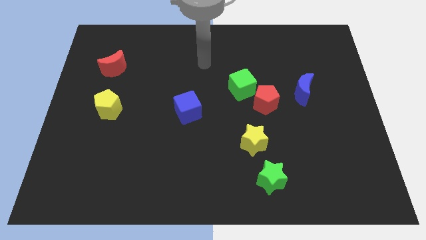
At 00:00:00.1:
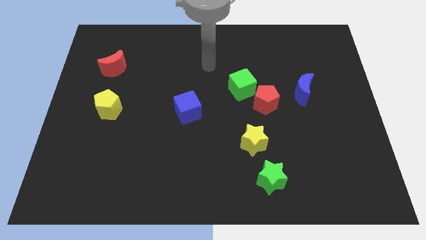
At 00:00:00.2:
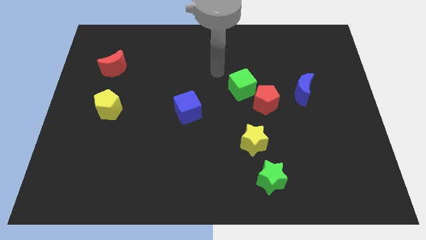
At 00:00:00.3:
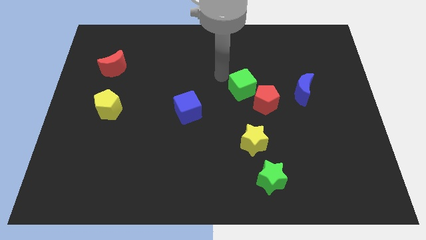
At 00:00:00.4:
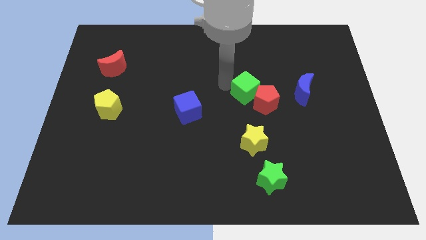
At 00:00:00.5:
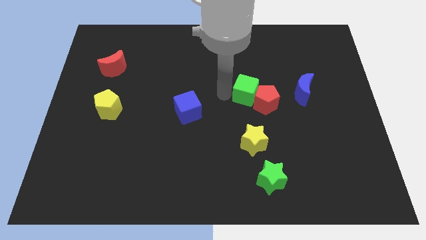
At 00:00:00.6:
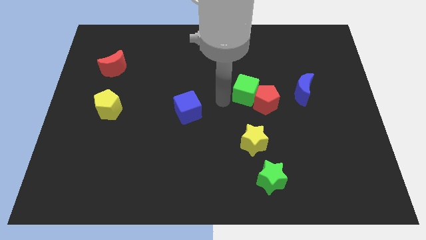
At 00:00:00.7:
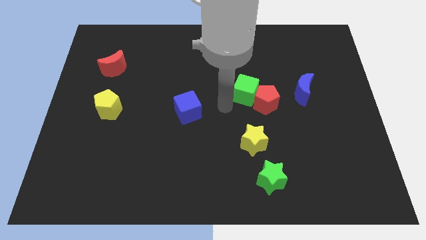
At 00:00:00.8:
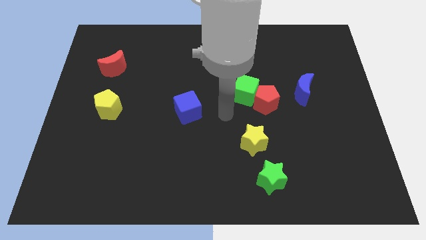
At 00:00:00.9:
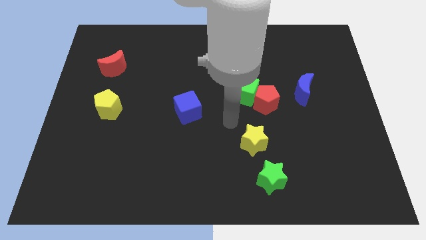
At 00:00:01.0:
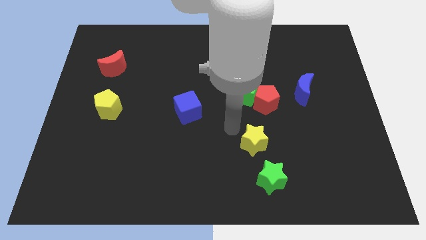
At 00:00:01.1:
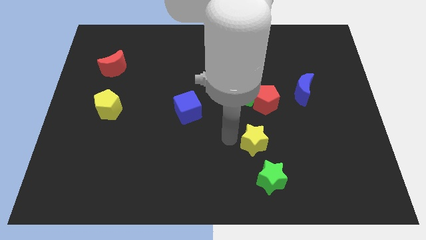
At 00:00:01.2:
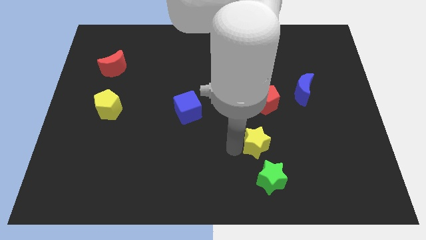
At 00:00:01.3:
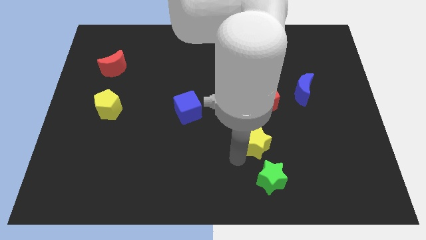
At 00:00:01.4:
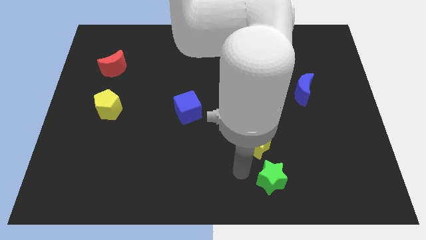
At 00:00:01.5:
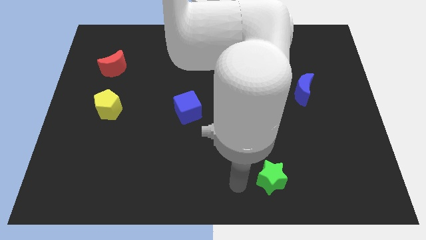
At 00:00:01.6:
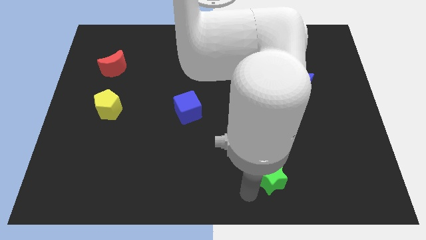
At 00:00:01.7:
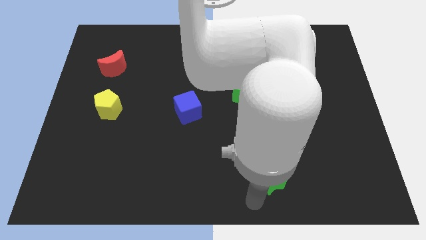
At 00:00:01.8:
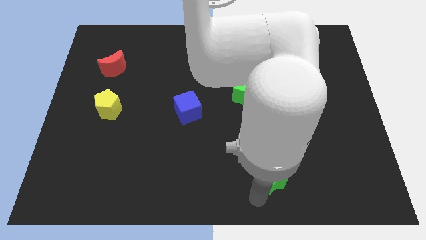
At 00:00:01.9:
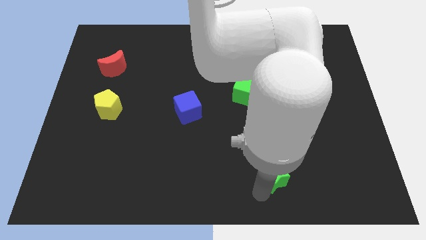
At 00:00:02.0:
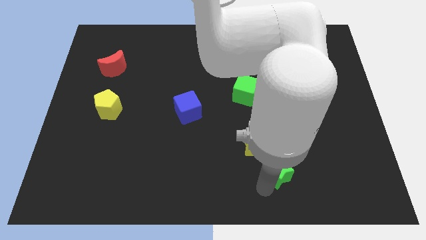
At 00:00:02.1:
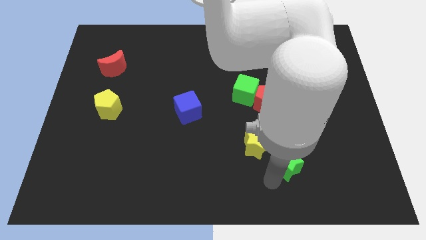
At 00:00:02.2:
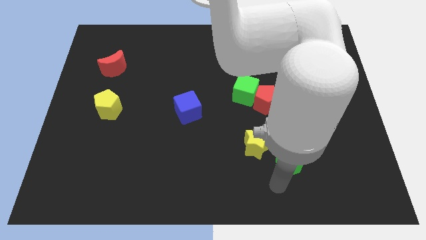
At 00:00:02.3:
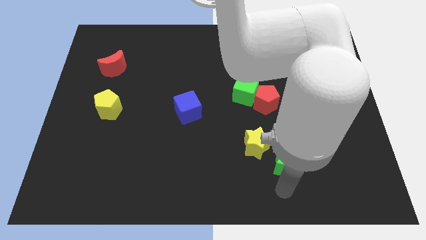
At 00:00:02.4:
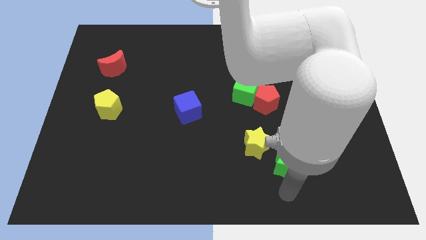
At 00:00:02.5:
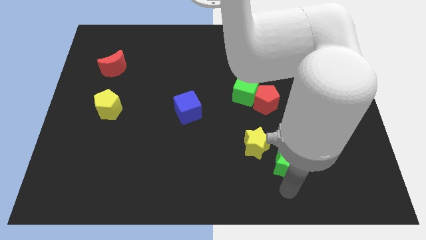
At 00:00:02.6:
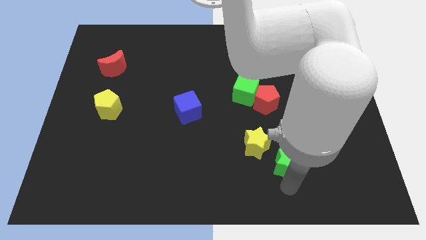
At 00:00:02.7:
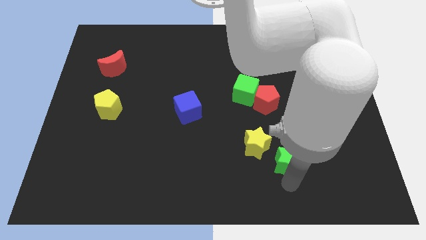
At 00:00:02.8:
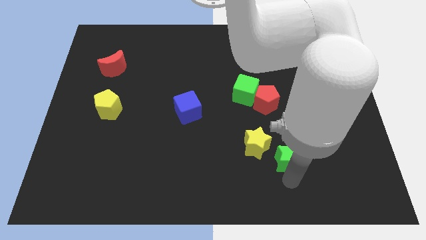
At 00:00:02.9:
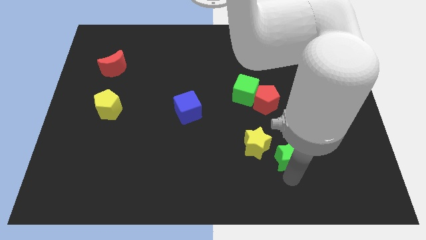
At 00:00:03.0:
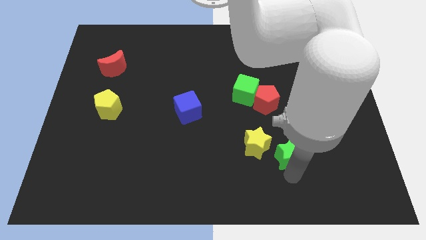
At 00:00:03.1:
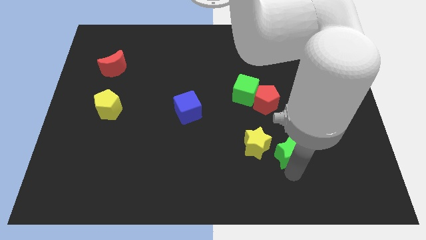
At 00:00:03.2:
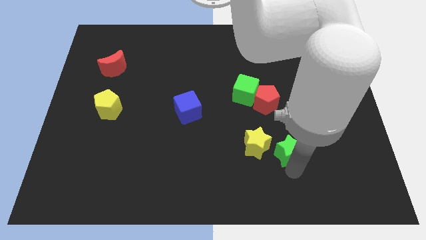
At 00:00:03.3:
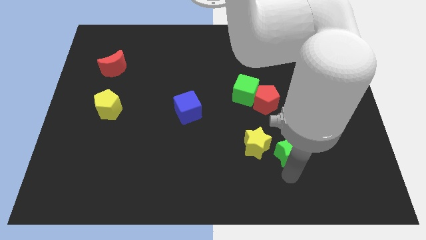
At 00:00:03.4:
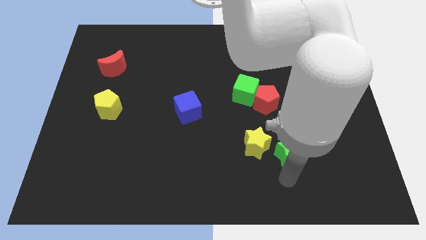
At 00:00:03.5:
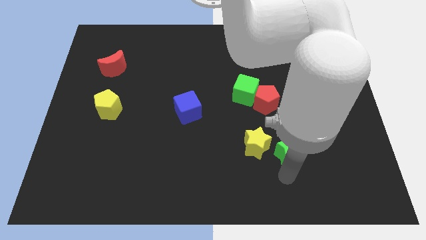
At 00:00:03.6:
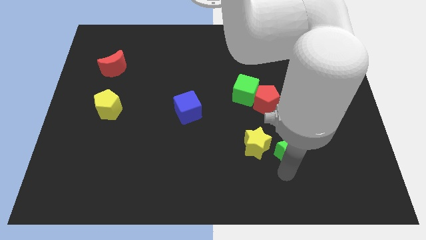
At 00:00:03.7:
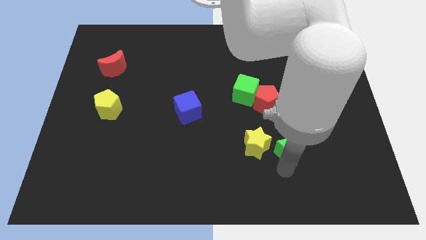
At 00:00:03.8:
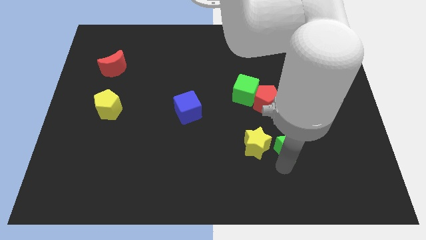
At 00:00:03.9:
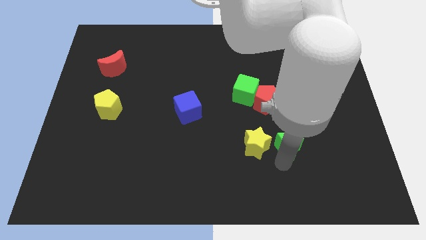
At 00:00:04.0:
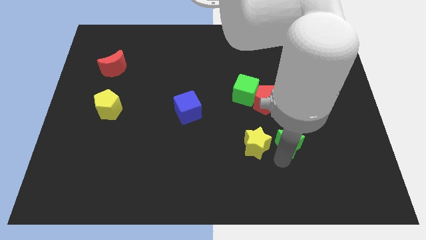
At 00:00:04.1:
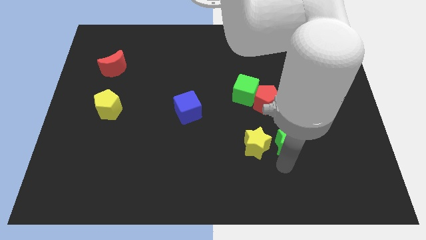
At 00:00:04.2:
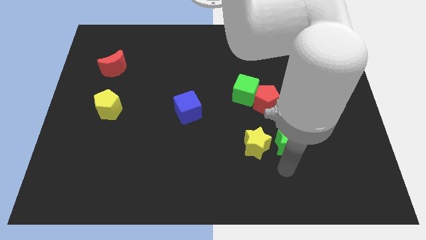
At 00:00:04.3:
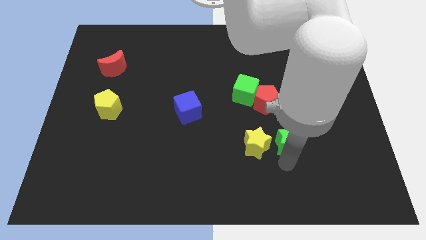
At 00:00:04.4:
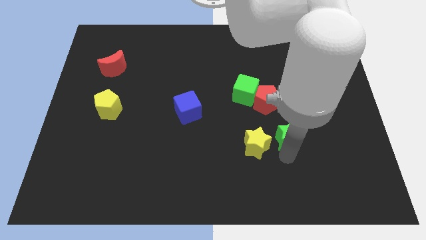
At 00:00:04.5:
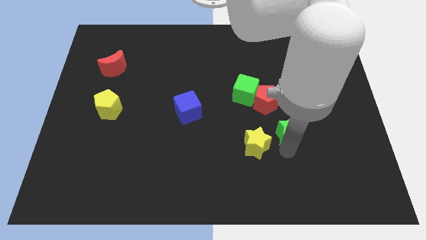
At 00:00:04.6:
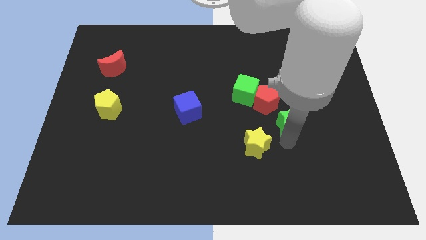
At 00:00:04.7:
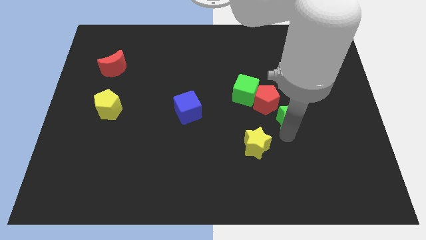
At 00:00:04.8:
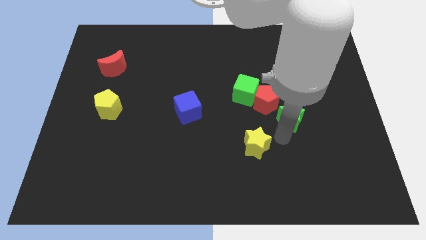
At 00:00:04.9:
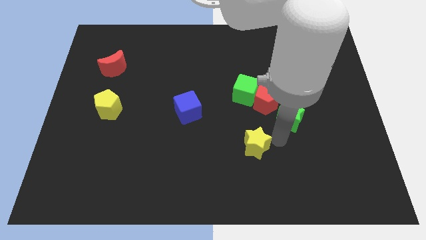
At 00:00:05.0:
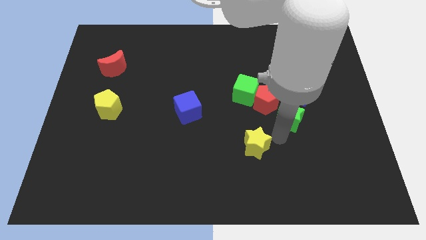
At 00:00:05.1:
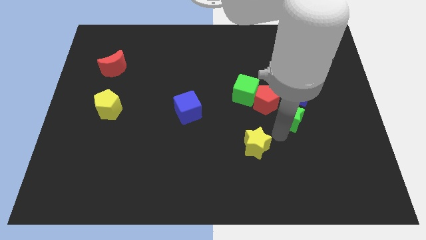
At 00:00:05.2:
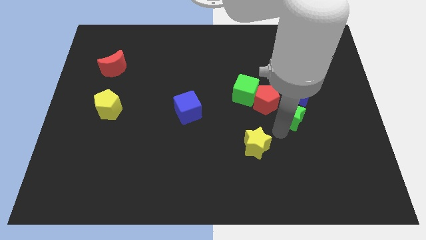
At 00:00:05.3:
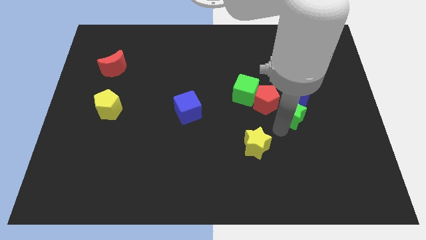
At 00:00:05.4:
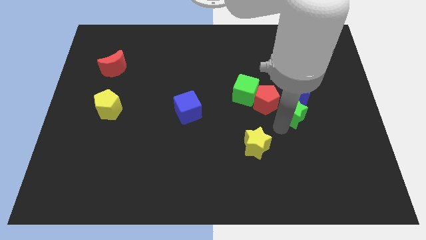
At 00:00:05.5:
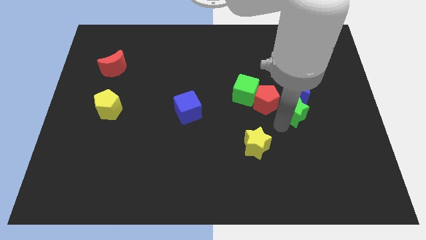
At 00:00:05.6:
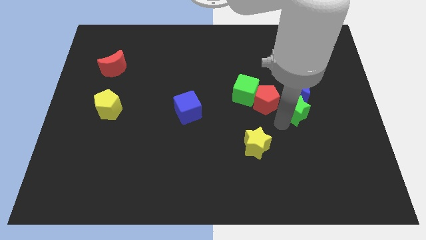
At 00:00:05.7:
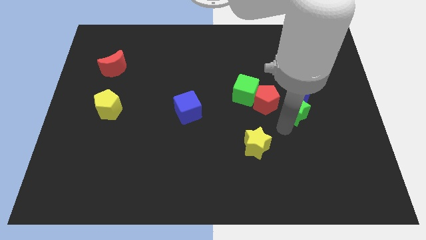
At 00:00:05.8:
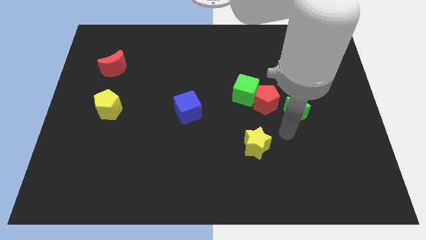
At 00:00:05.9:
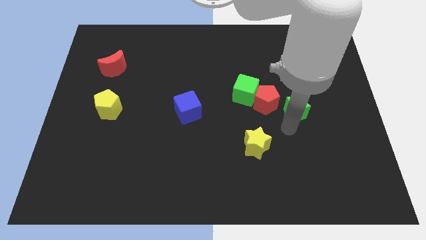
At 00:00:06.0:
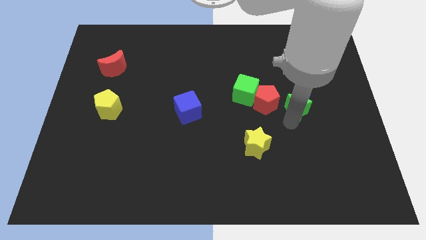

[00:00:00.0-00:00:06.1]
put the green star to the blue moon

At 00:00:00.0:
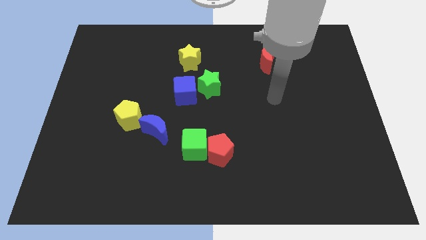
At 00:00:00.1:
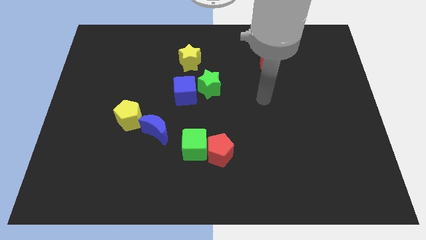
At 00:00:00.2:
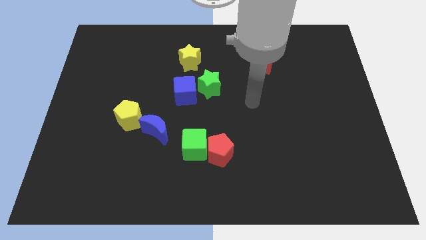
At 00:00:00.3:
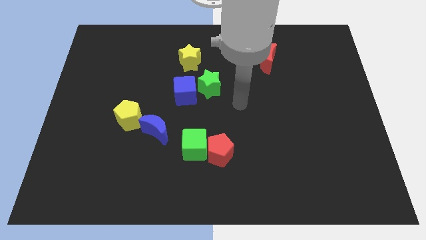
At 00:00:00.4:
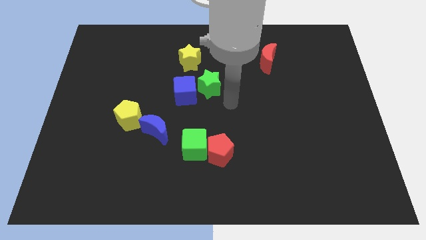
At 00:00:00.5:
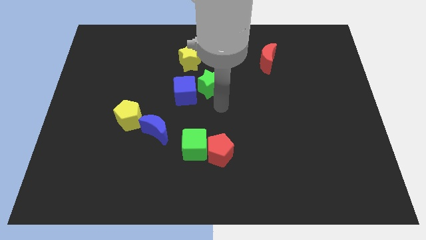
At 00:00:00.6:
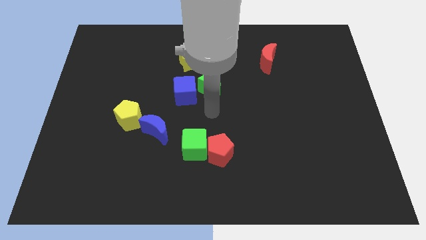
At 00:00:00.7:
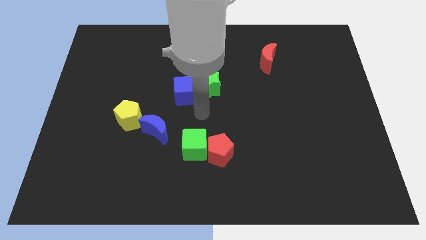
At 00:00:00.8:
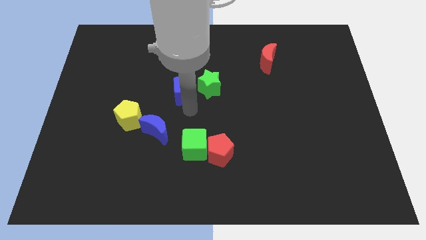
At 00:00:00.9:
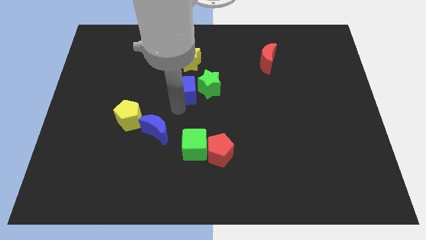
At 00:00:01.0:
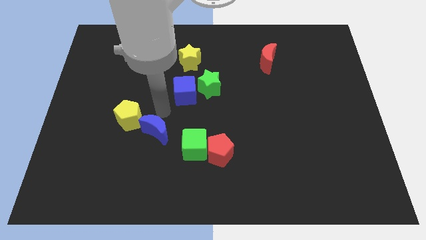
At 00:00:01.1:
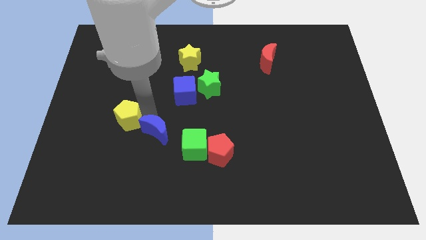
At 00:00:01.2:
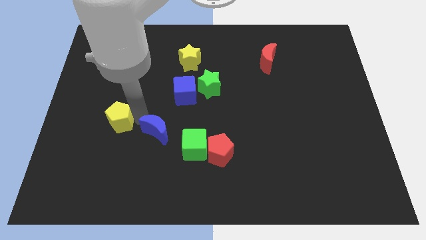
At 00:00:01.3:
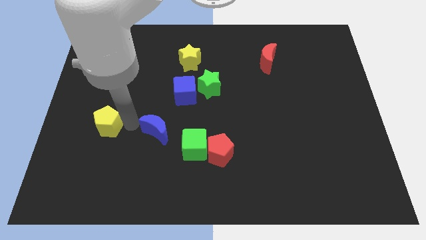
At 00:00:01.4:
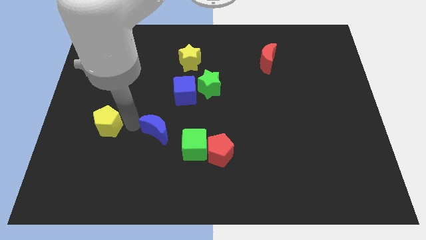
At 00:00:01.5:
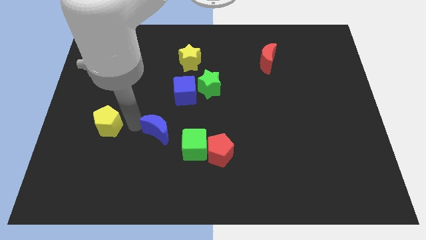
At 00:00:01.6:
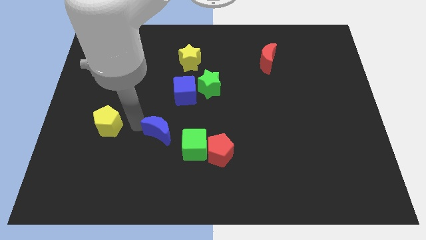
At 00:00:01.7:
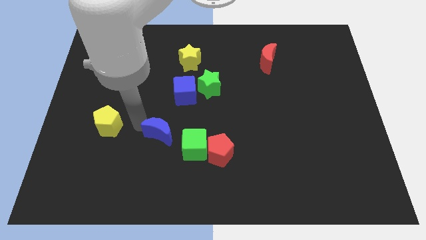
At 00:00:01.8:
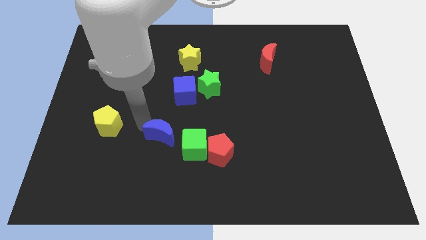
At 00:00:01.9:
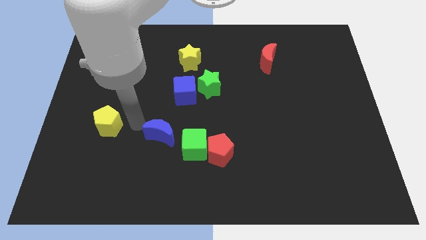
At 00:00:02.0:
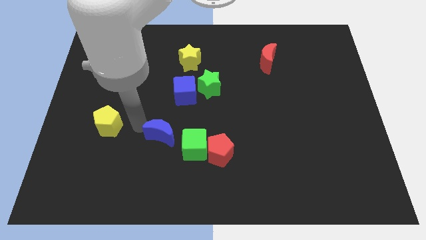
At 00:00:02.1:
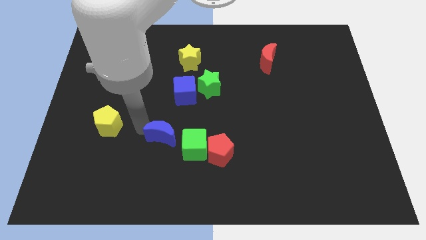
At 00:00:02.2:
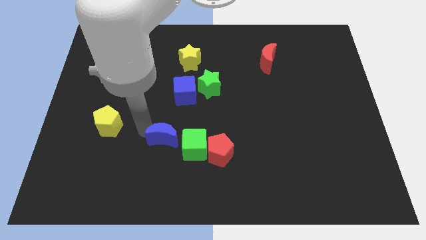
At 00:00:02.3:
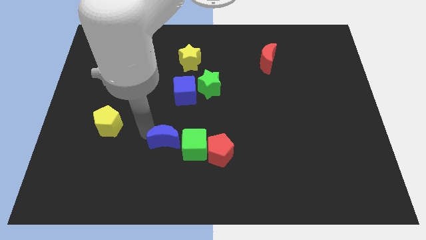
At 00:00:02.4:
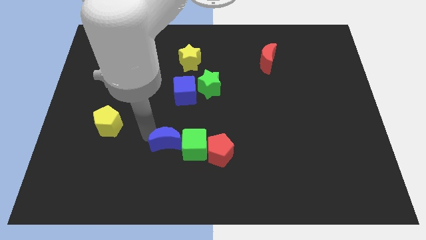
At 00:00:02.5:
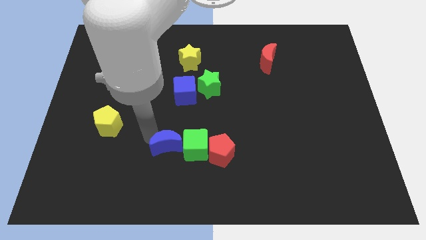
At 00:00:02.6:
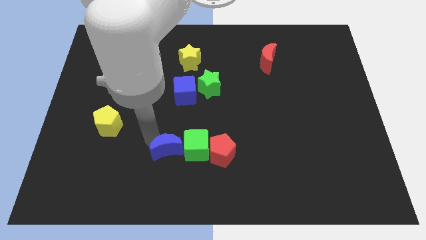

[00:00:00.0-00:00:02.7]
push the blue moon to the green cube
